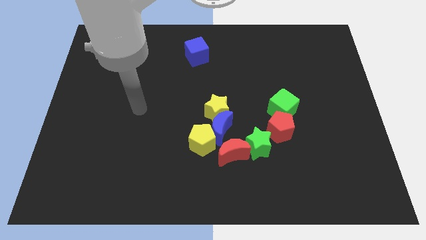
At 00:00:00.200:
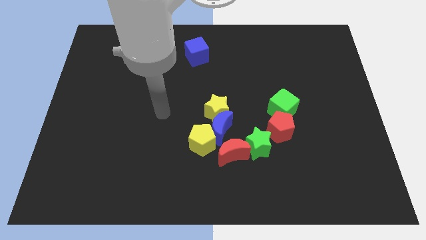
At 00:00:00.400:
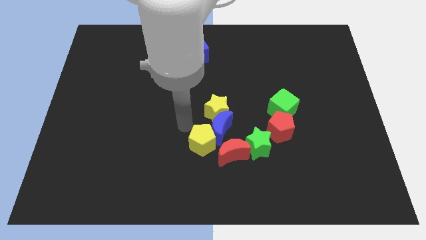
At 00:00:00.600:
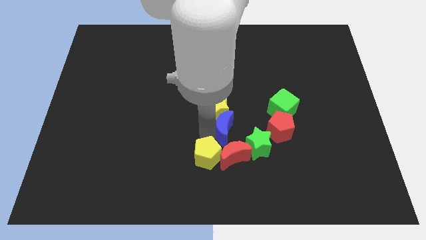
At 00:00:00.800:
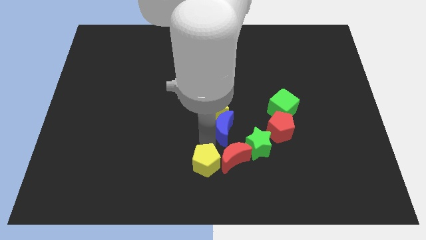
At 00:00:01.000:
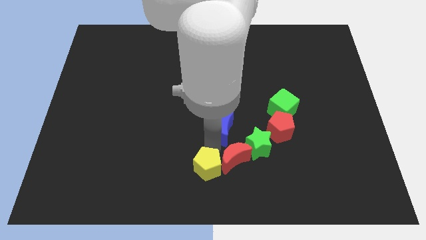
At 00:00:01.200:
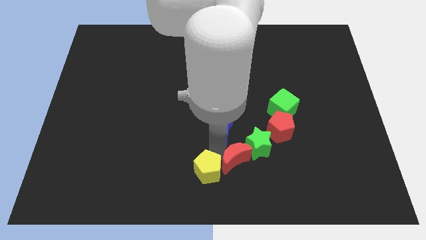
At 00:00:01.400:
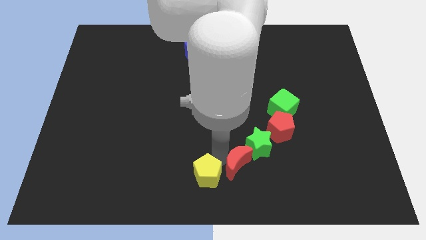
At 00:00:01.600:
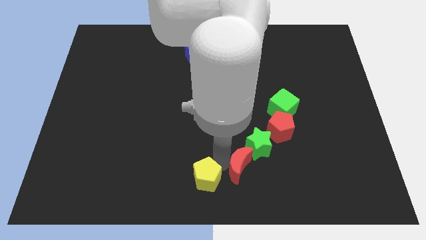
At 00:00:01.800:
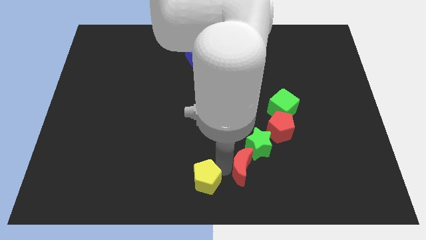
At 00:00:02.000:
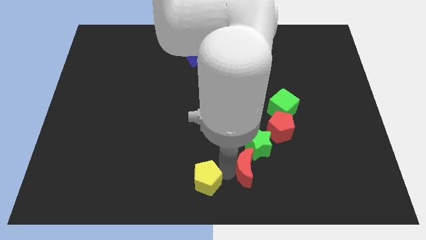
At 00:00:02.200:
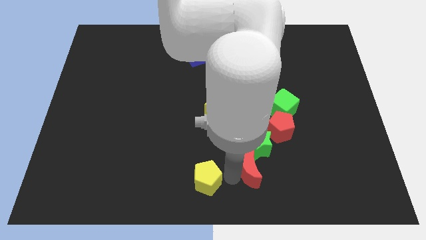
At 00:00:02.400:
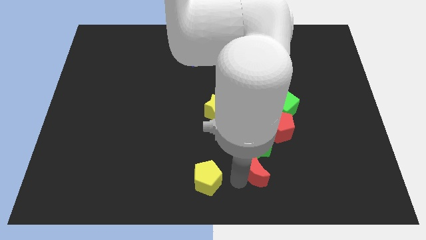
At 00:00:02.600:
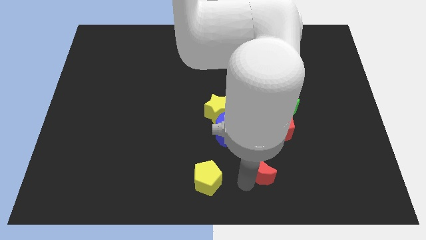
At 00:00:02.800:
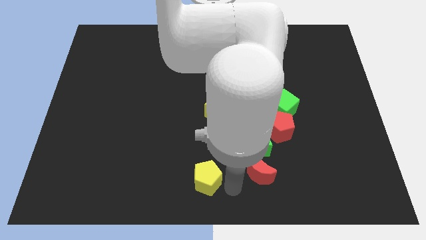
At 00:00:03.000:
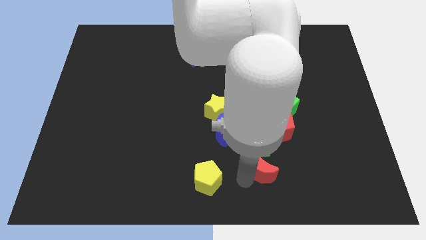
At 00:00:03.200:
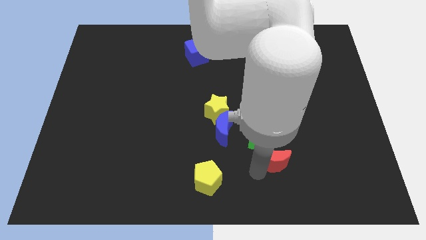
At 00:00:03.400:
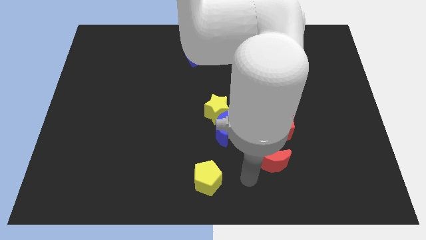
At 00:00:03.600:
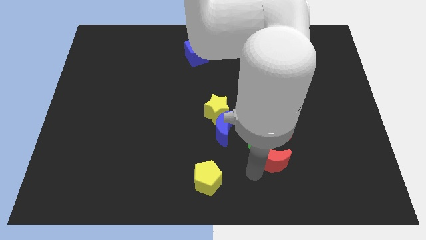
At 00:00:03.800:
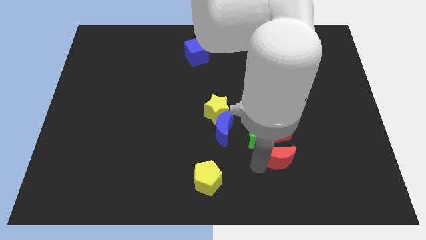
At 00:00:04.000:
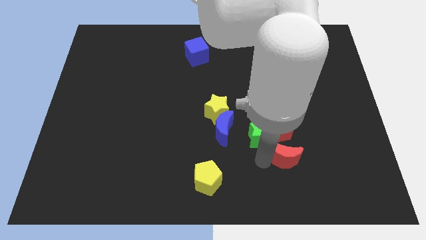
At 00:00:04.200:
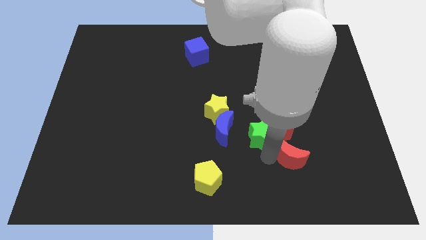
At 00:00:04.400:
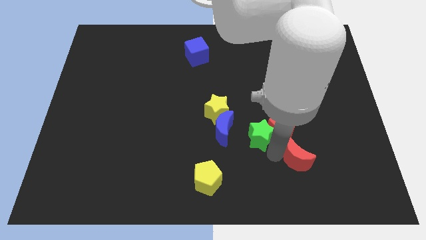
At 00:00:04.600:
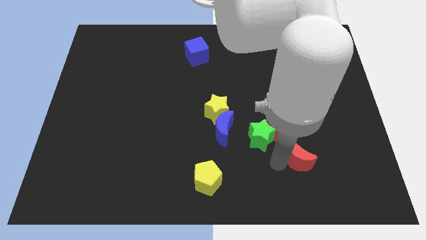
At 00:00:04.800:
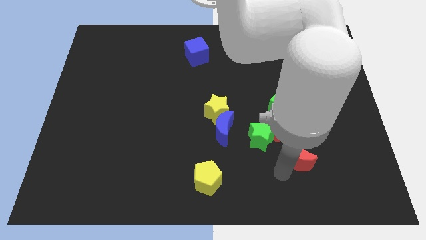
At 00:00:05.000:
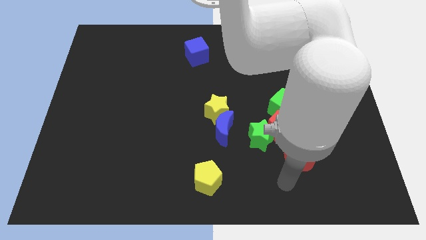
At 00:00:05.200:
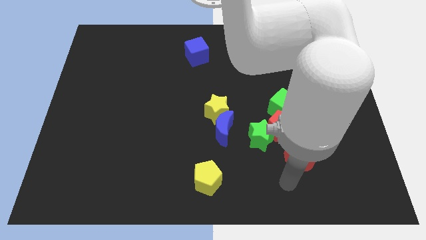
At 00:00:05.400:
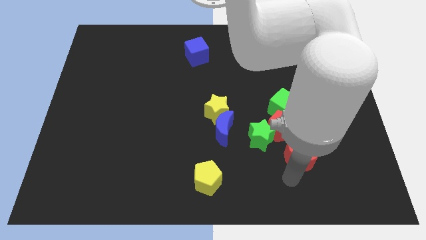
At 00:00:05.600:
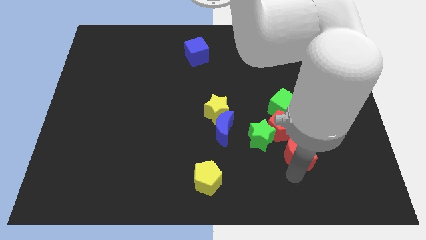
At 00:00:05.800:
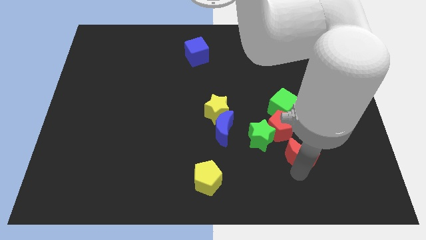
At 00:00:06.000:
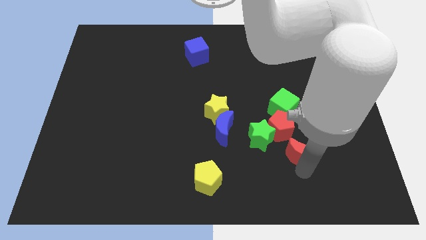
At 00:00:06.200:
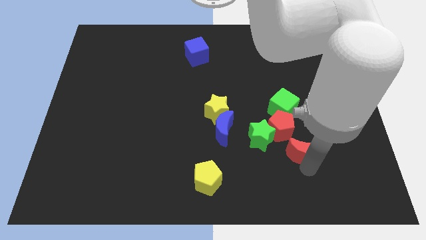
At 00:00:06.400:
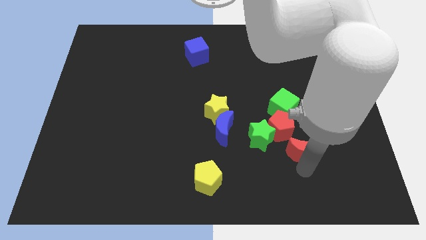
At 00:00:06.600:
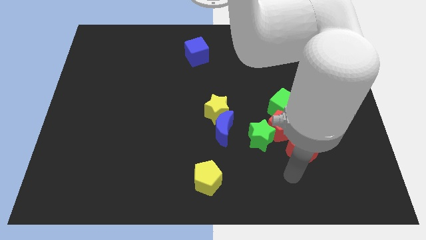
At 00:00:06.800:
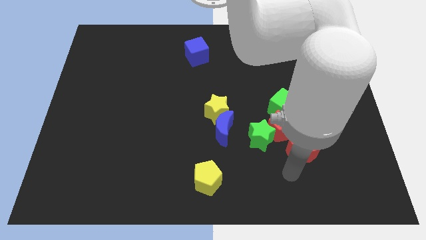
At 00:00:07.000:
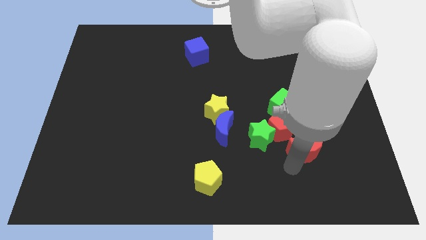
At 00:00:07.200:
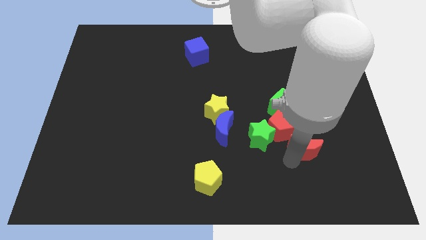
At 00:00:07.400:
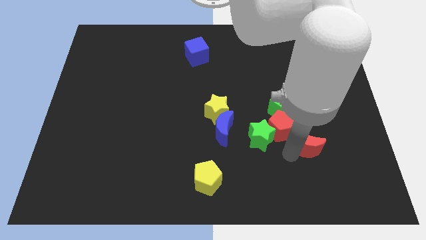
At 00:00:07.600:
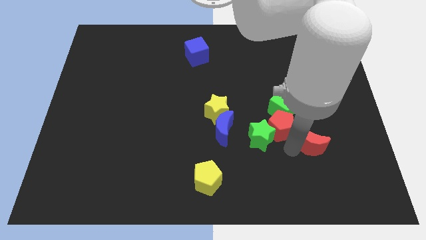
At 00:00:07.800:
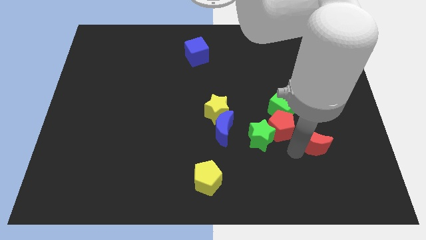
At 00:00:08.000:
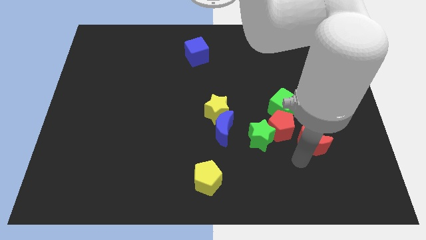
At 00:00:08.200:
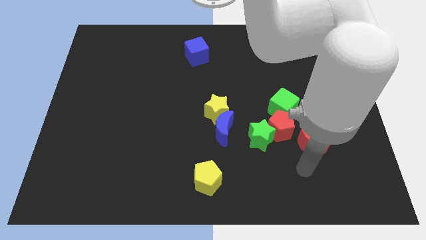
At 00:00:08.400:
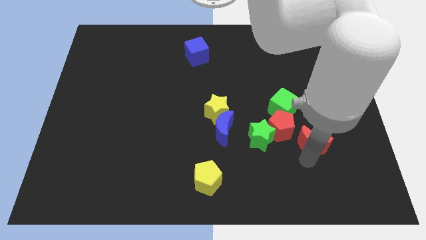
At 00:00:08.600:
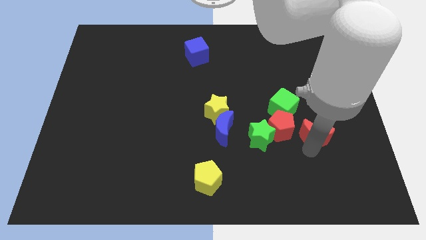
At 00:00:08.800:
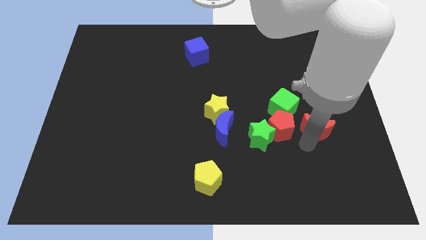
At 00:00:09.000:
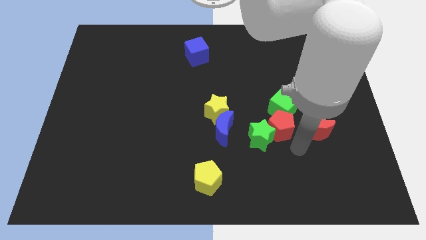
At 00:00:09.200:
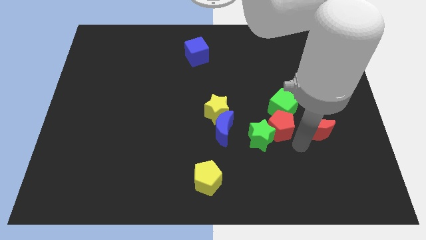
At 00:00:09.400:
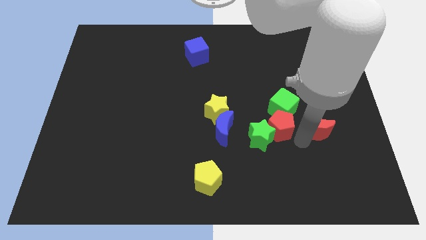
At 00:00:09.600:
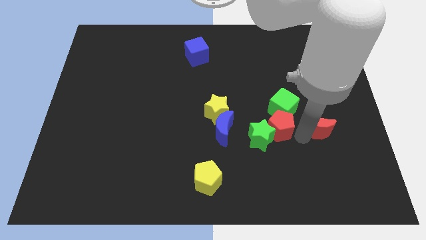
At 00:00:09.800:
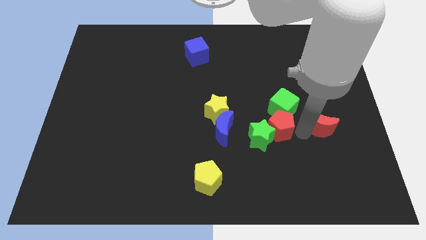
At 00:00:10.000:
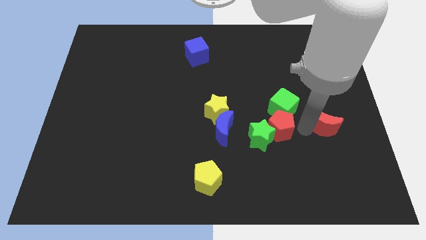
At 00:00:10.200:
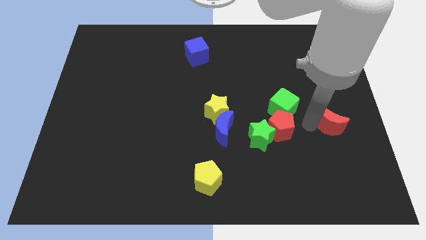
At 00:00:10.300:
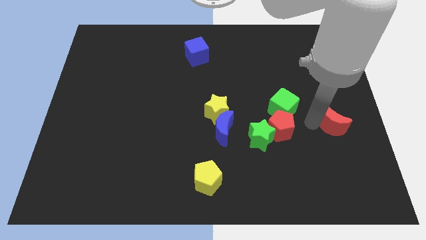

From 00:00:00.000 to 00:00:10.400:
put the red moon to the right side of the board

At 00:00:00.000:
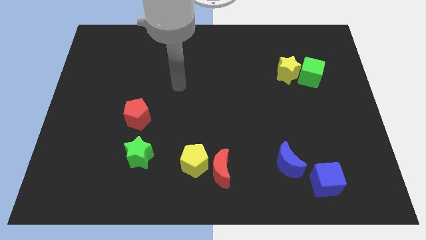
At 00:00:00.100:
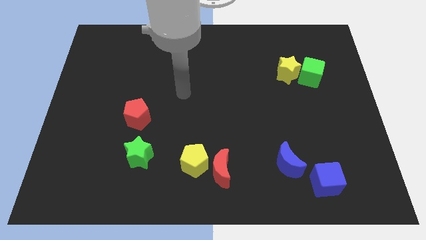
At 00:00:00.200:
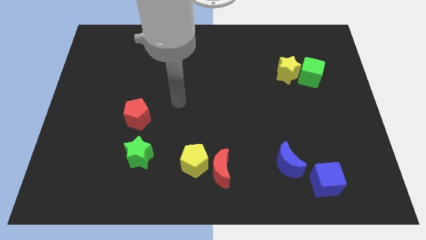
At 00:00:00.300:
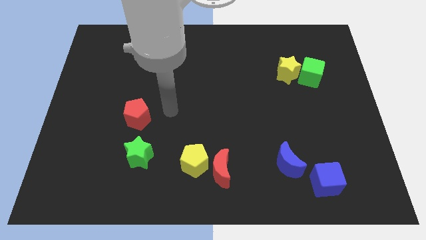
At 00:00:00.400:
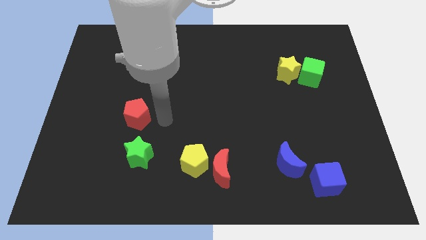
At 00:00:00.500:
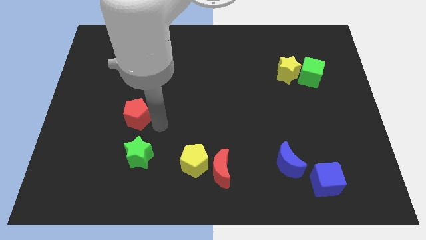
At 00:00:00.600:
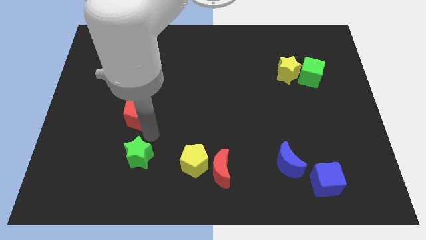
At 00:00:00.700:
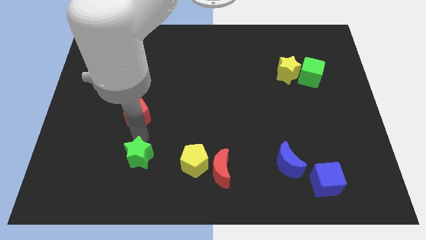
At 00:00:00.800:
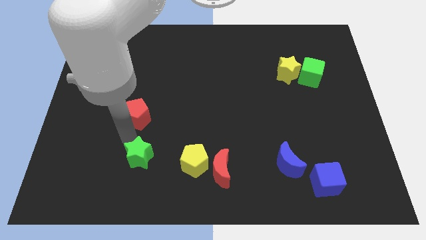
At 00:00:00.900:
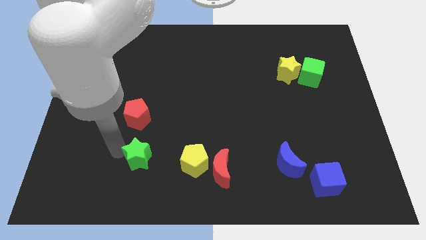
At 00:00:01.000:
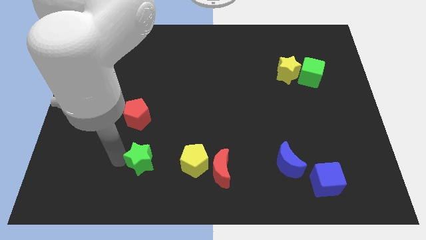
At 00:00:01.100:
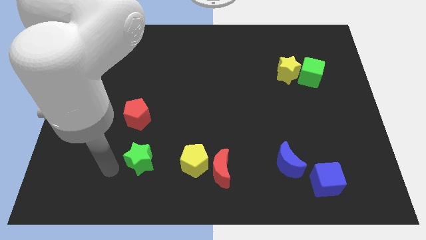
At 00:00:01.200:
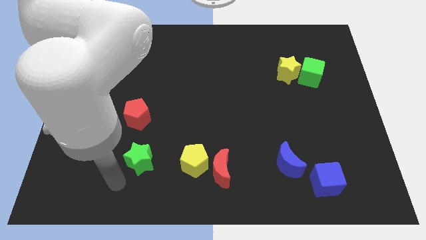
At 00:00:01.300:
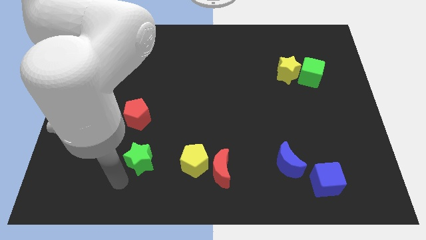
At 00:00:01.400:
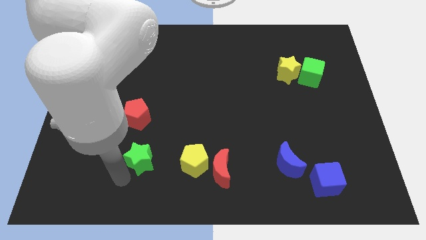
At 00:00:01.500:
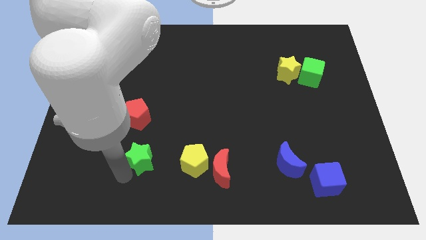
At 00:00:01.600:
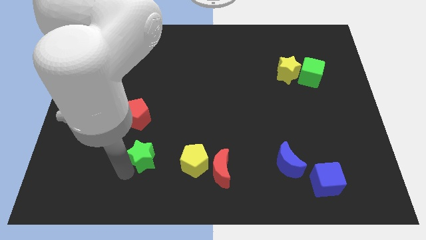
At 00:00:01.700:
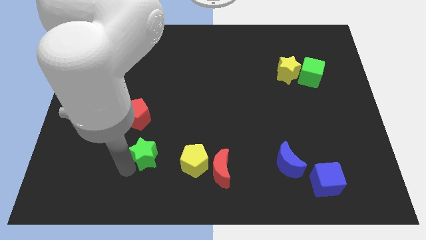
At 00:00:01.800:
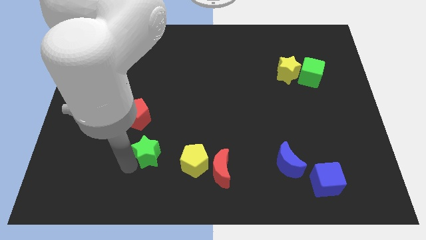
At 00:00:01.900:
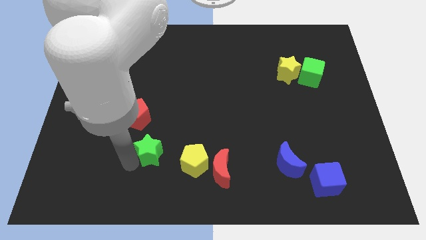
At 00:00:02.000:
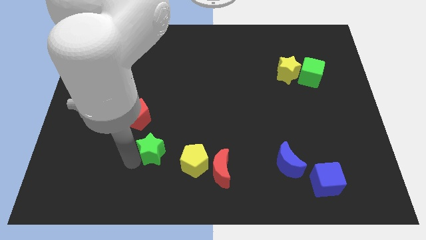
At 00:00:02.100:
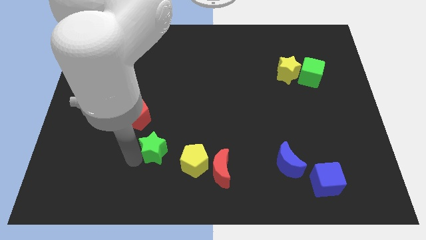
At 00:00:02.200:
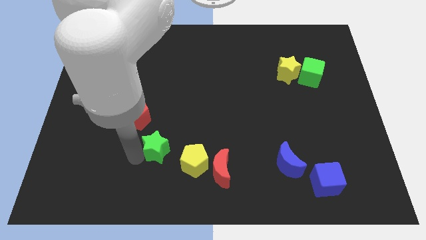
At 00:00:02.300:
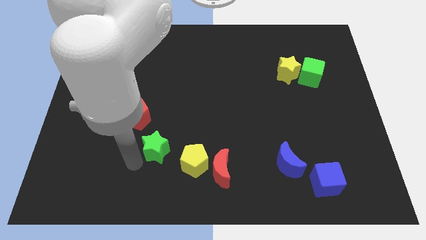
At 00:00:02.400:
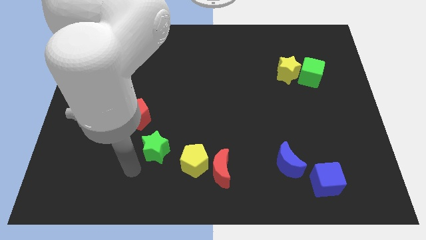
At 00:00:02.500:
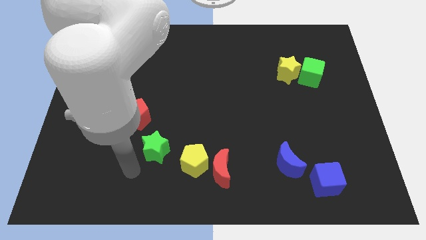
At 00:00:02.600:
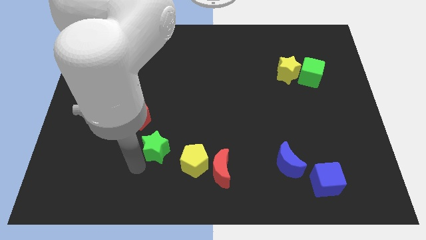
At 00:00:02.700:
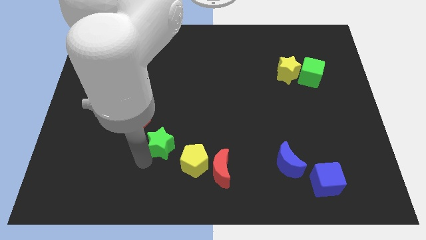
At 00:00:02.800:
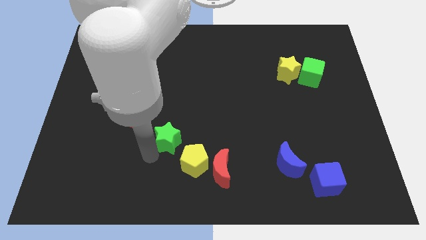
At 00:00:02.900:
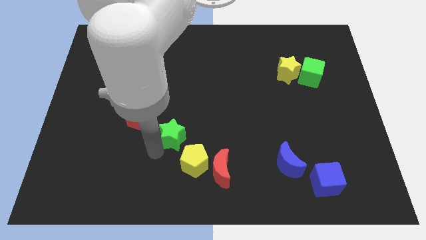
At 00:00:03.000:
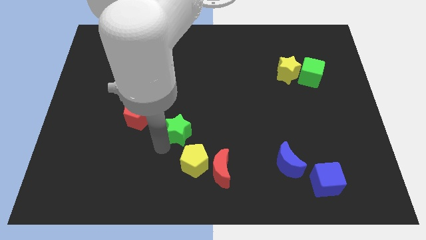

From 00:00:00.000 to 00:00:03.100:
push the green star to the middle
